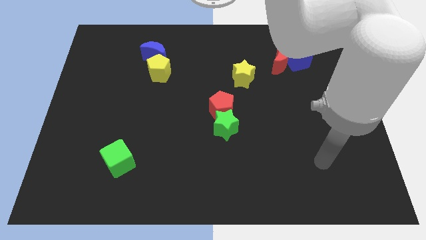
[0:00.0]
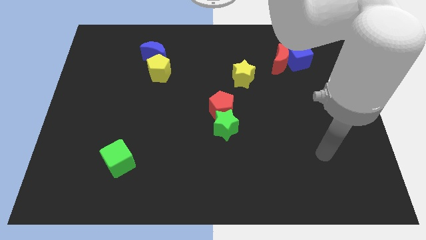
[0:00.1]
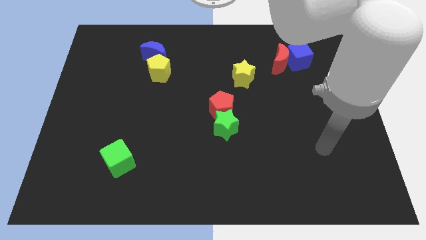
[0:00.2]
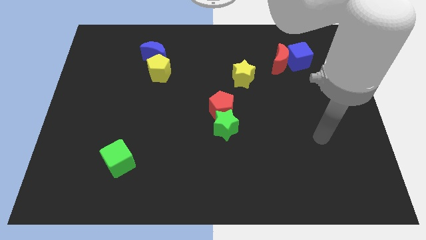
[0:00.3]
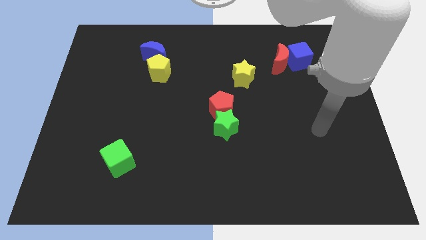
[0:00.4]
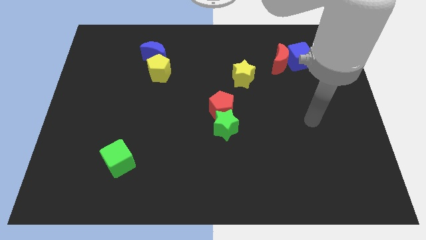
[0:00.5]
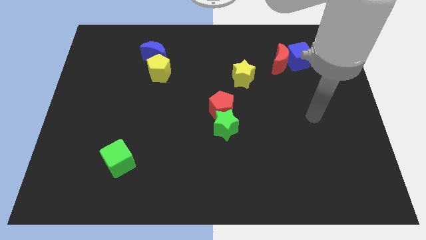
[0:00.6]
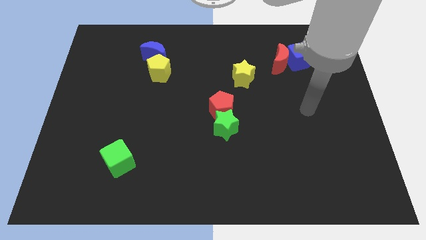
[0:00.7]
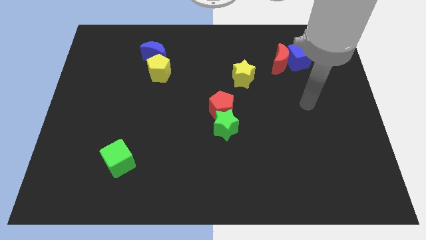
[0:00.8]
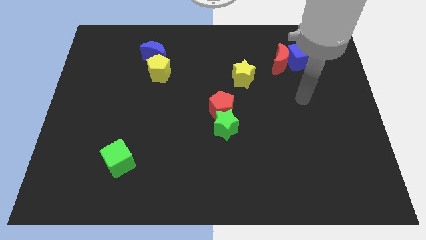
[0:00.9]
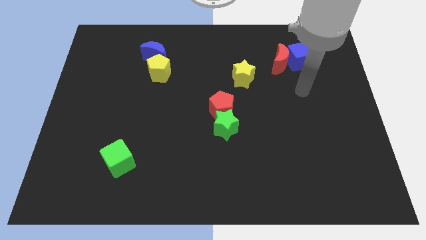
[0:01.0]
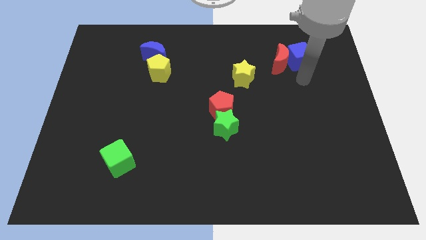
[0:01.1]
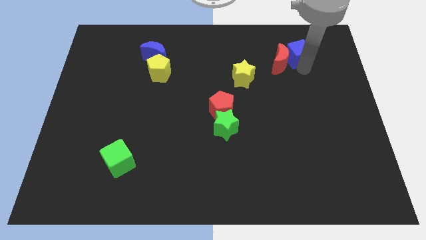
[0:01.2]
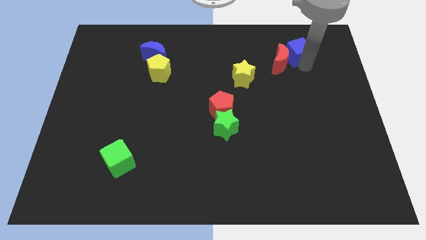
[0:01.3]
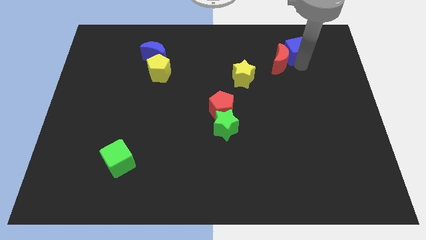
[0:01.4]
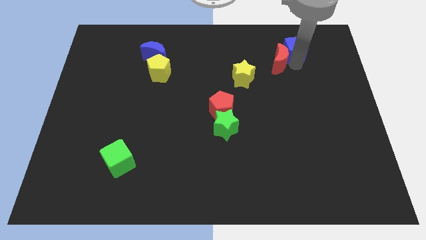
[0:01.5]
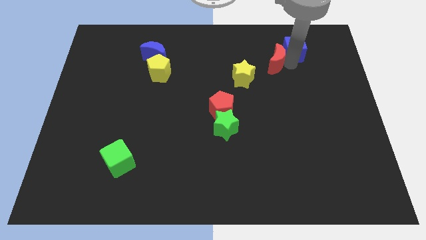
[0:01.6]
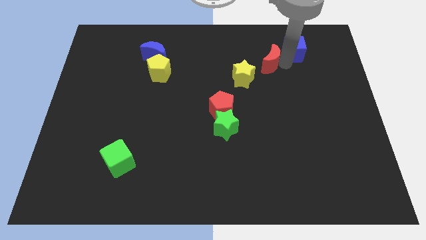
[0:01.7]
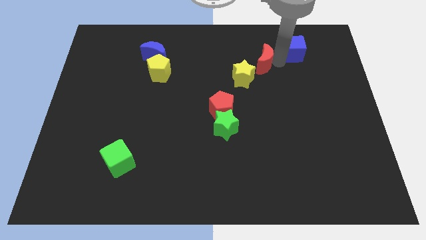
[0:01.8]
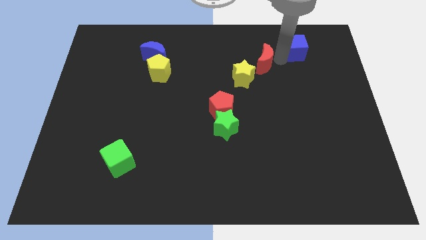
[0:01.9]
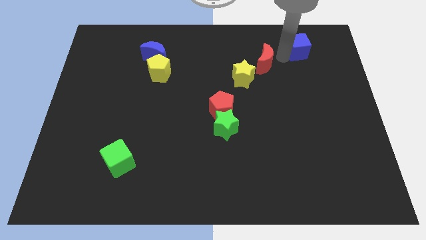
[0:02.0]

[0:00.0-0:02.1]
move the red moon away from the blue cube

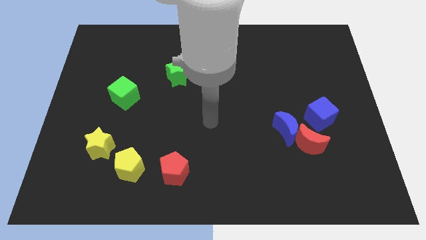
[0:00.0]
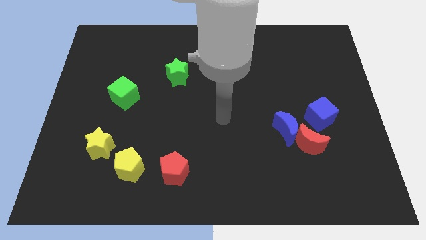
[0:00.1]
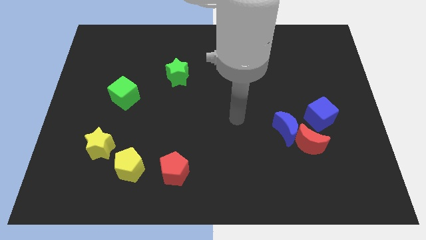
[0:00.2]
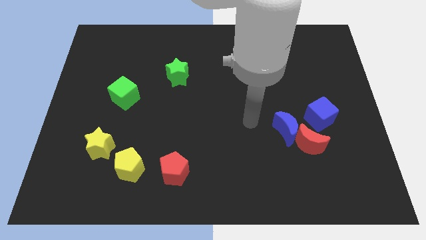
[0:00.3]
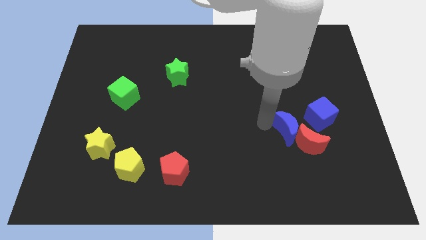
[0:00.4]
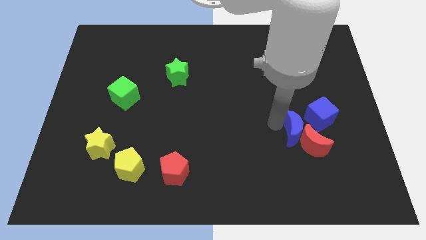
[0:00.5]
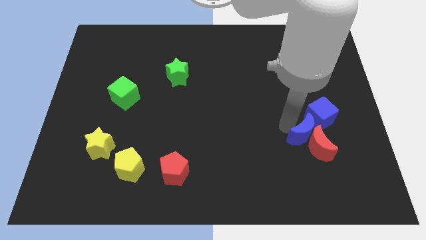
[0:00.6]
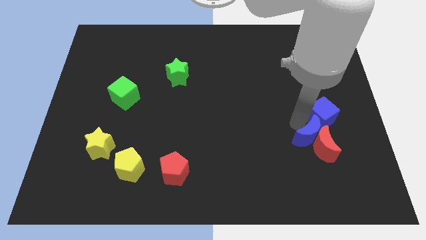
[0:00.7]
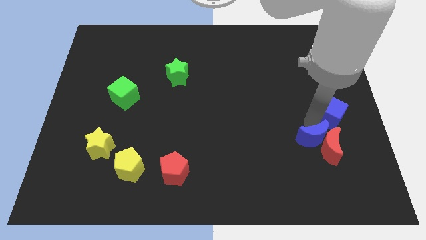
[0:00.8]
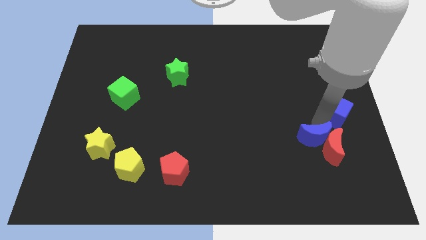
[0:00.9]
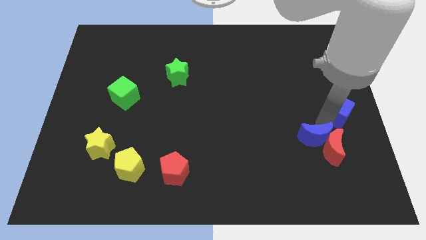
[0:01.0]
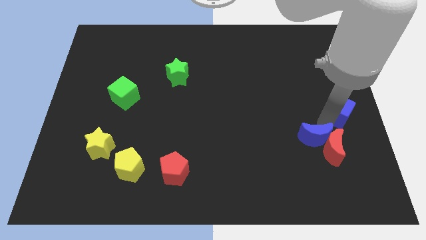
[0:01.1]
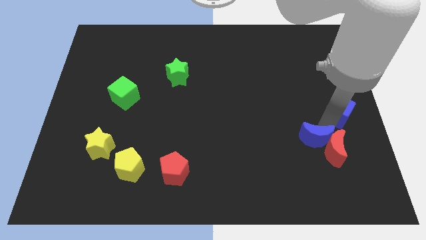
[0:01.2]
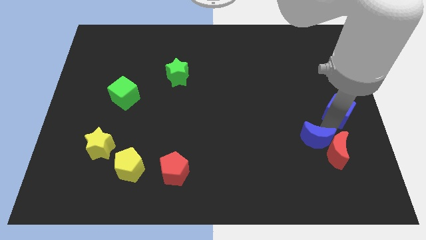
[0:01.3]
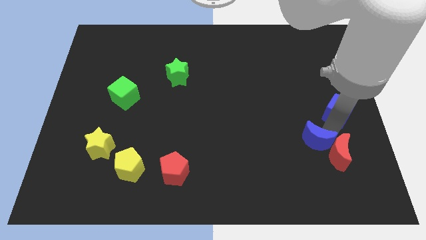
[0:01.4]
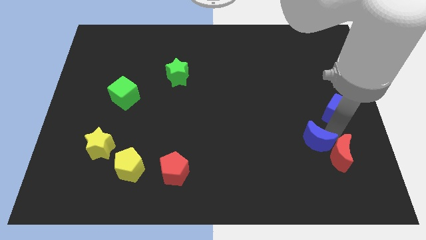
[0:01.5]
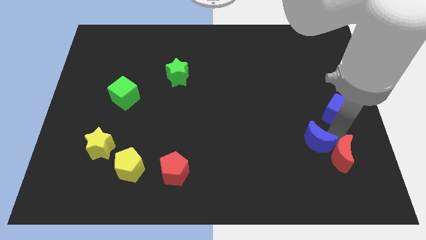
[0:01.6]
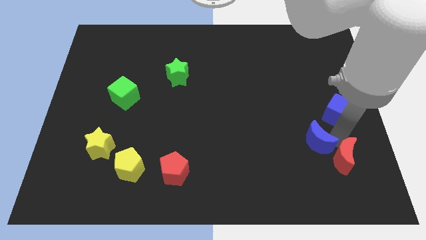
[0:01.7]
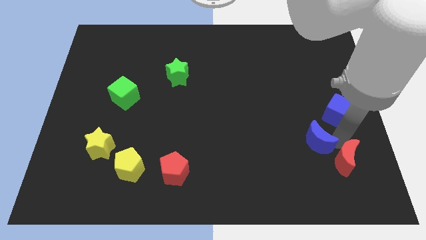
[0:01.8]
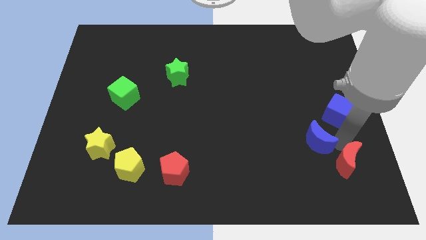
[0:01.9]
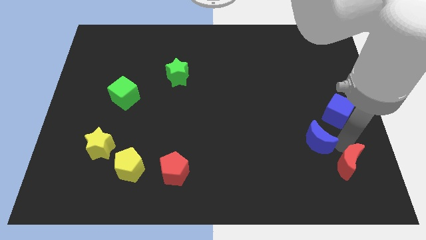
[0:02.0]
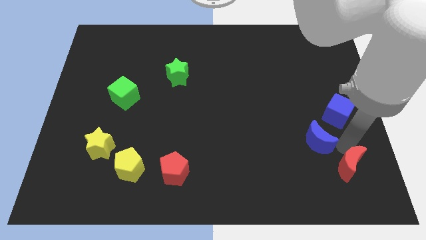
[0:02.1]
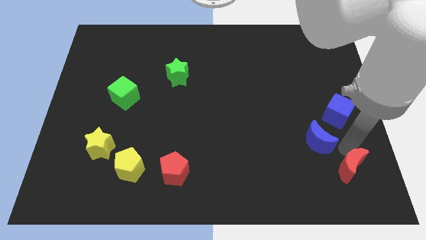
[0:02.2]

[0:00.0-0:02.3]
pull the red moon apart from the blue moon and blue cube

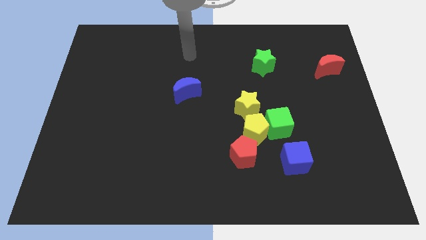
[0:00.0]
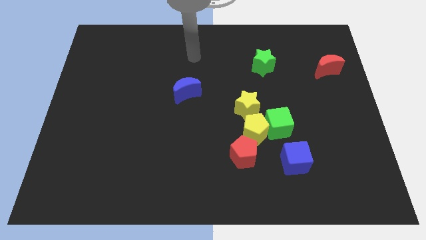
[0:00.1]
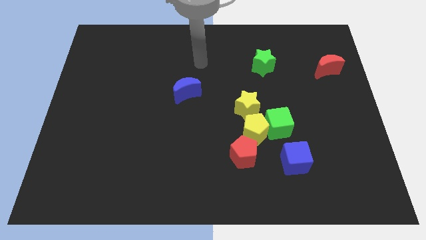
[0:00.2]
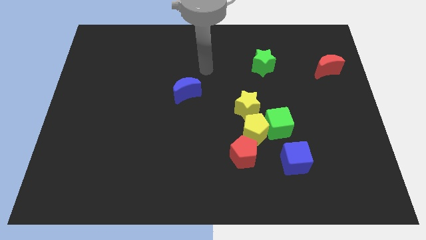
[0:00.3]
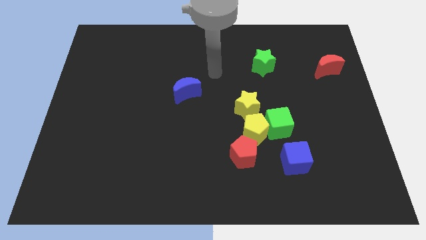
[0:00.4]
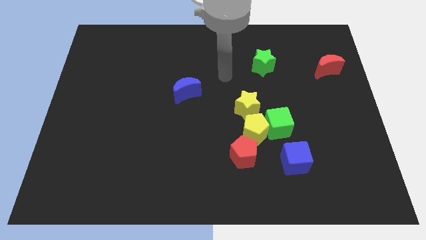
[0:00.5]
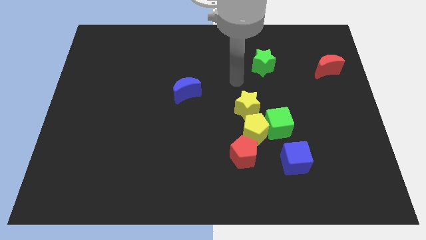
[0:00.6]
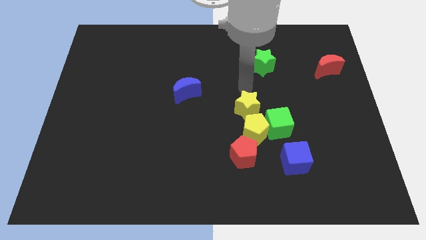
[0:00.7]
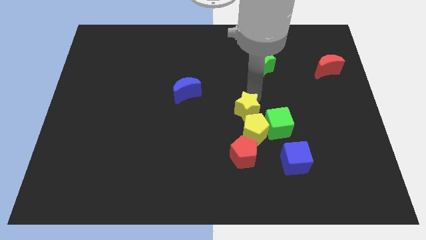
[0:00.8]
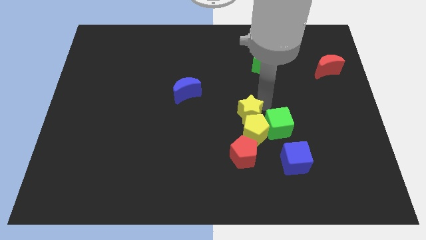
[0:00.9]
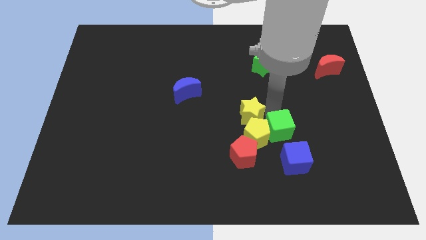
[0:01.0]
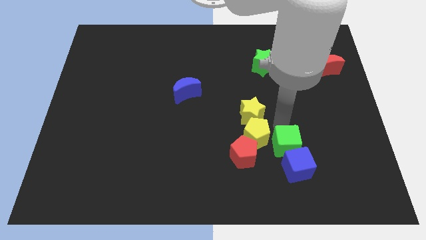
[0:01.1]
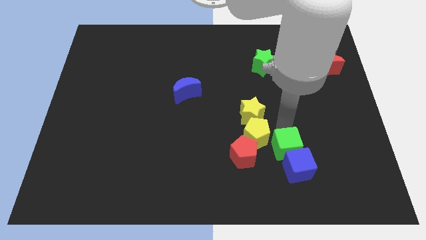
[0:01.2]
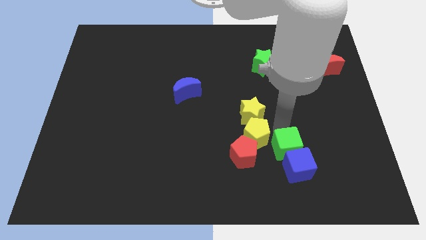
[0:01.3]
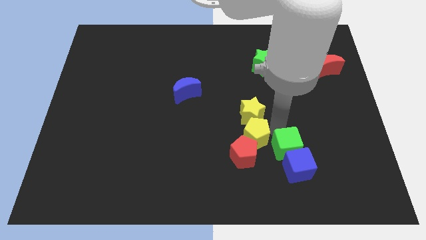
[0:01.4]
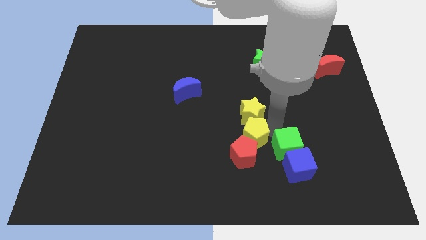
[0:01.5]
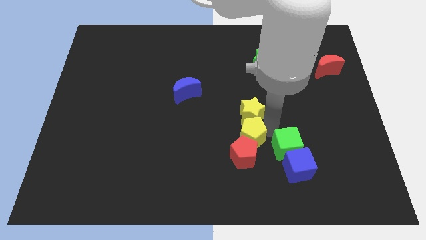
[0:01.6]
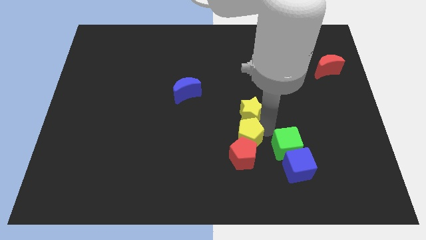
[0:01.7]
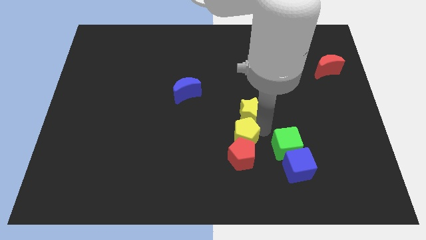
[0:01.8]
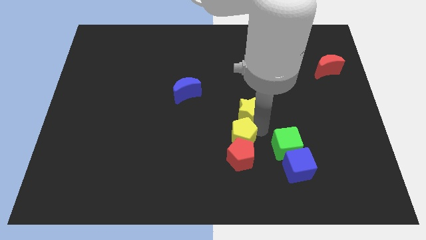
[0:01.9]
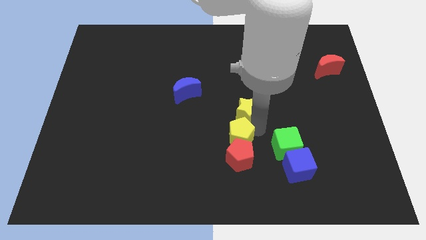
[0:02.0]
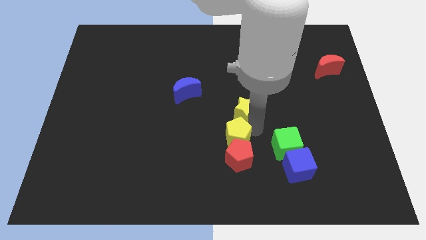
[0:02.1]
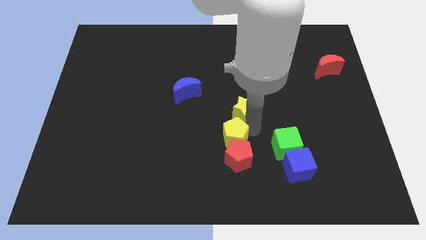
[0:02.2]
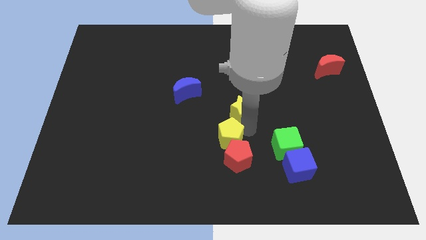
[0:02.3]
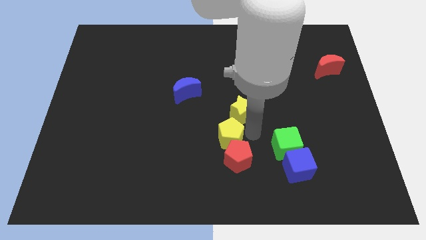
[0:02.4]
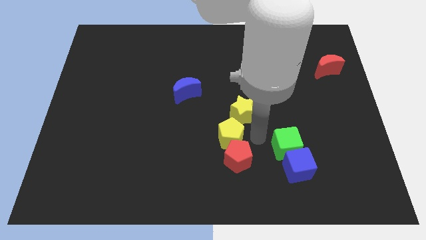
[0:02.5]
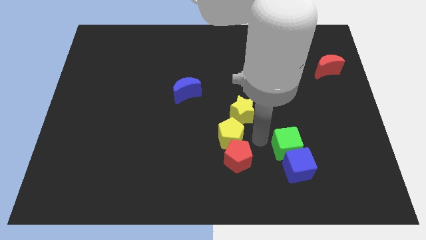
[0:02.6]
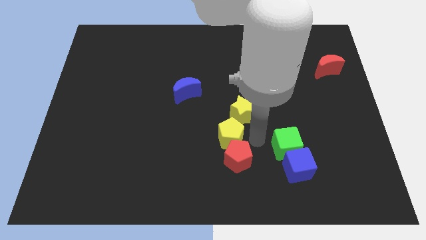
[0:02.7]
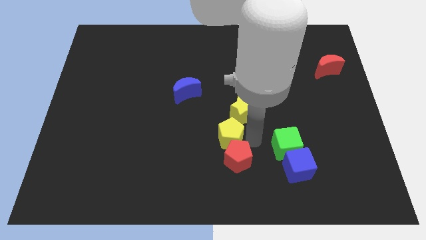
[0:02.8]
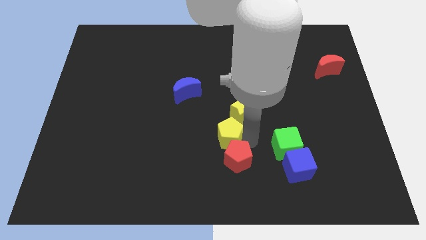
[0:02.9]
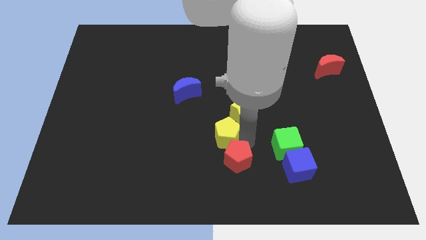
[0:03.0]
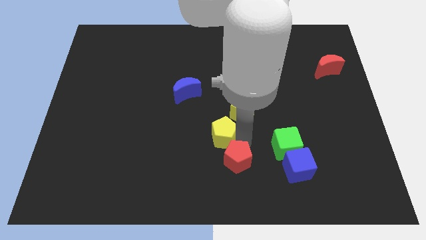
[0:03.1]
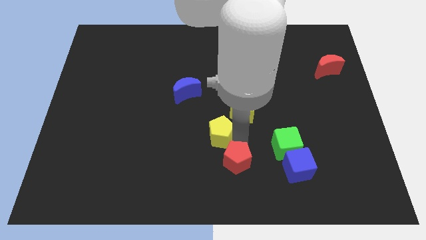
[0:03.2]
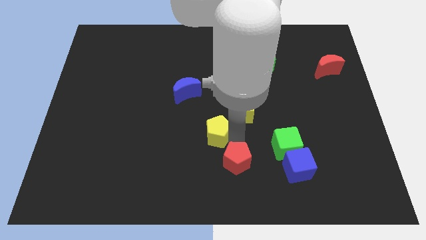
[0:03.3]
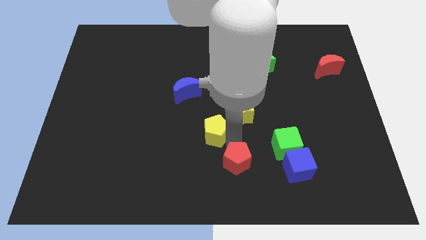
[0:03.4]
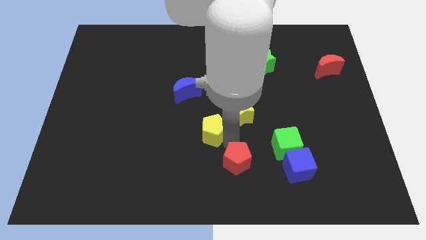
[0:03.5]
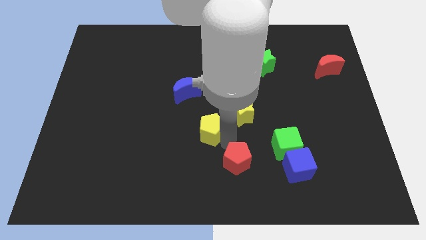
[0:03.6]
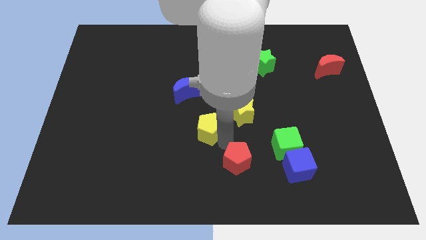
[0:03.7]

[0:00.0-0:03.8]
pull the yellow pentagon apart from the group of blocks

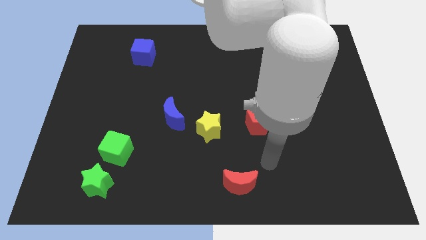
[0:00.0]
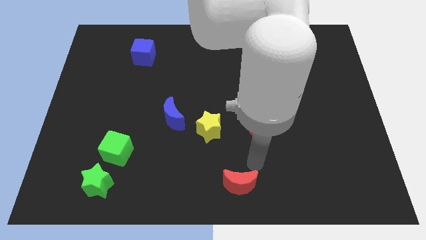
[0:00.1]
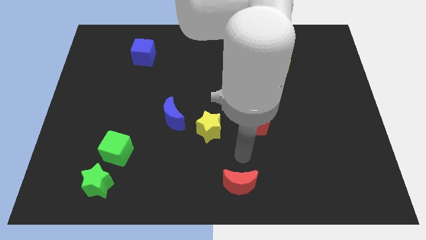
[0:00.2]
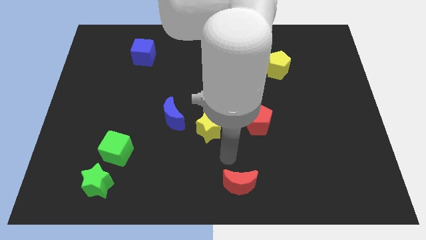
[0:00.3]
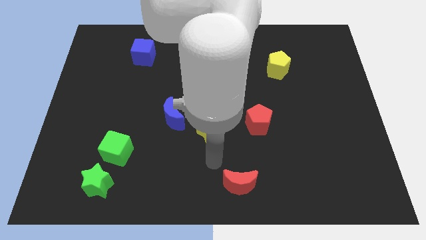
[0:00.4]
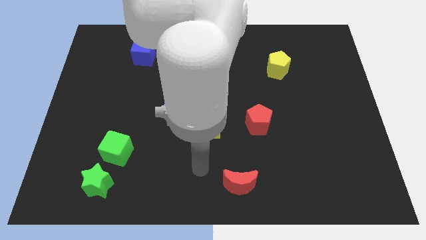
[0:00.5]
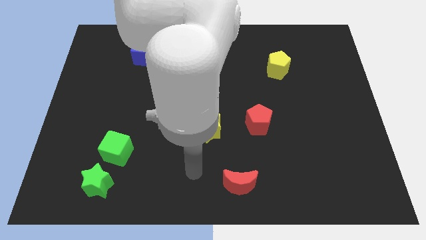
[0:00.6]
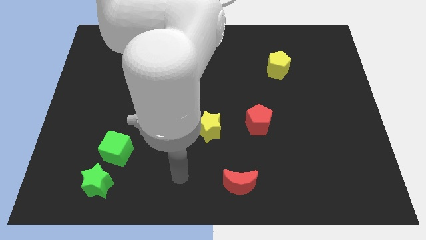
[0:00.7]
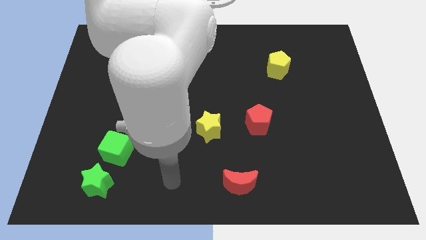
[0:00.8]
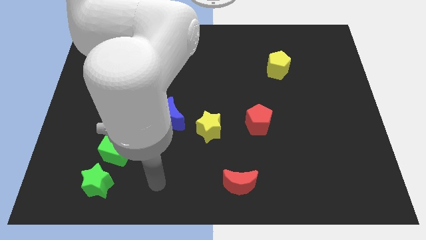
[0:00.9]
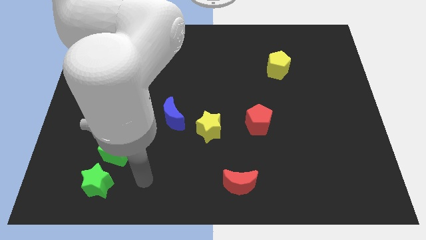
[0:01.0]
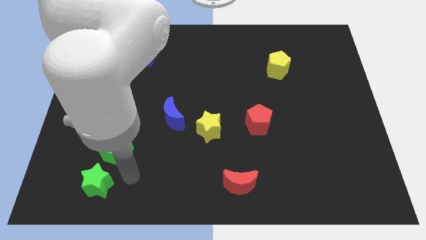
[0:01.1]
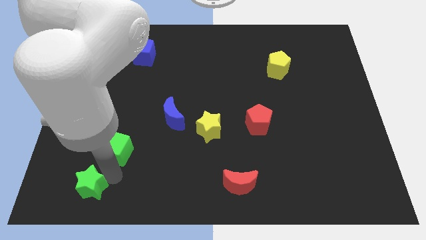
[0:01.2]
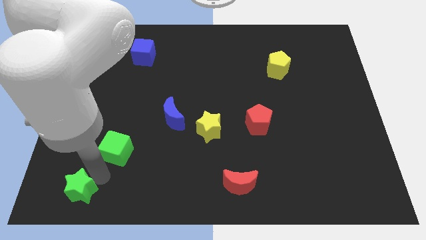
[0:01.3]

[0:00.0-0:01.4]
move the green cube away from the green star
